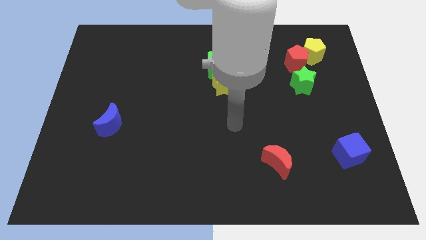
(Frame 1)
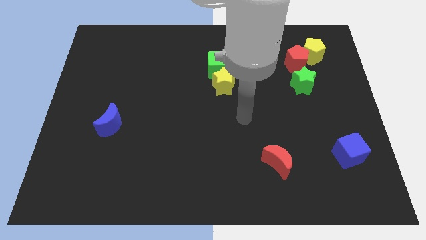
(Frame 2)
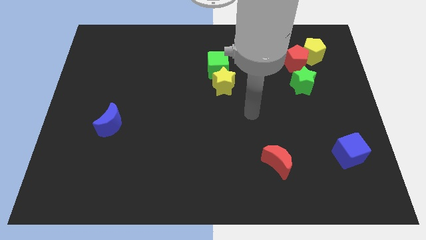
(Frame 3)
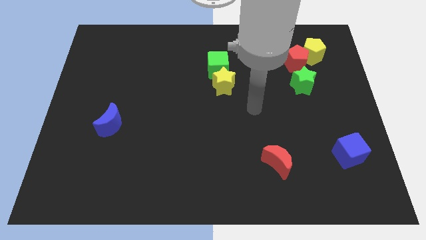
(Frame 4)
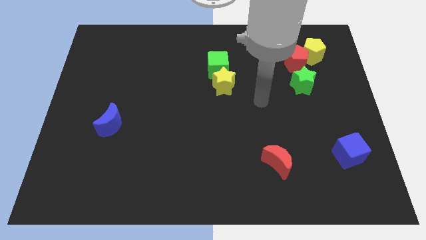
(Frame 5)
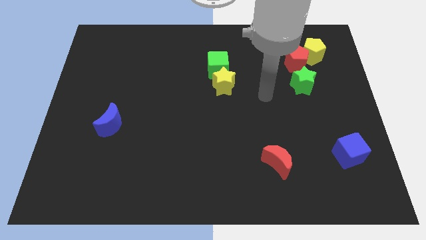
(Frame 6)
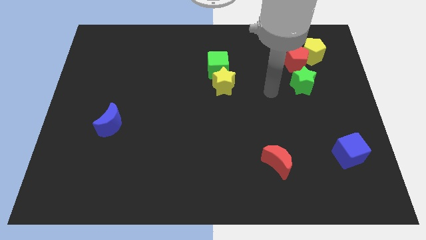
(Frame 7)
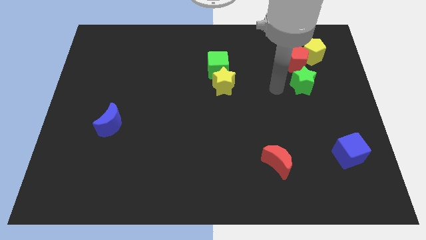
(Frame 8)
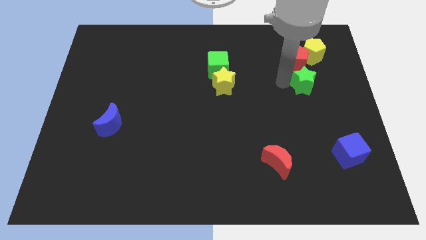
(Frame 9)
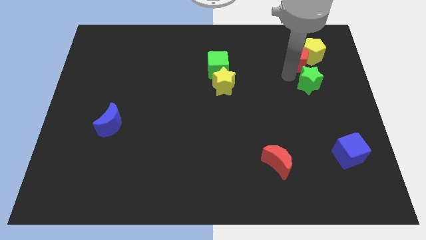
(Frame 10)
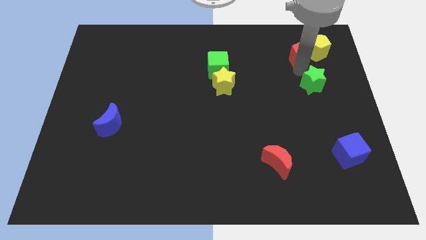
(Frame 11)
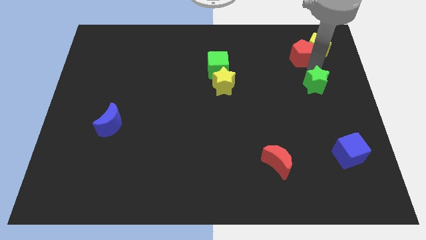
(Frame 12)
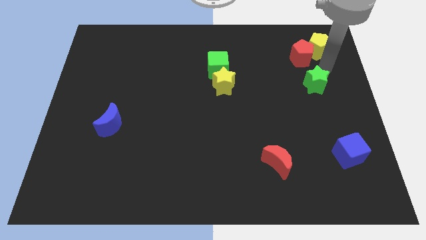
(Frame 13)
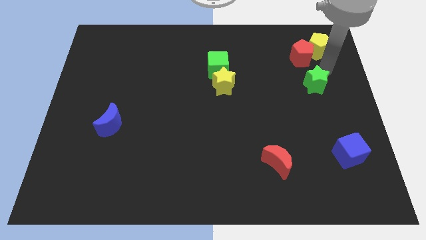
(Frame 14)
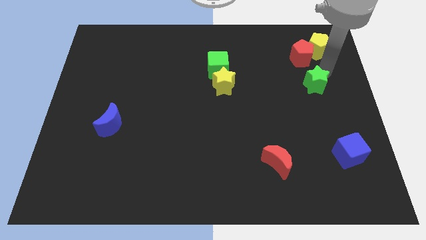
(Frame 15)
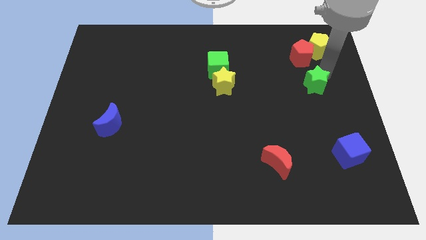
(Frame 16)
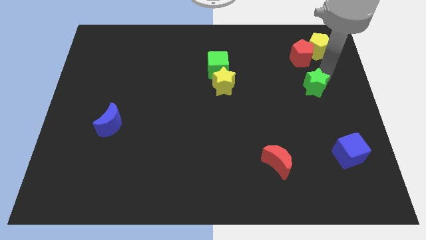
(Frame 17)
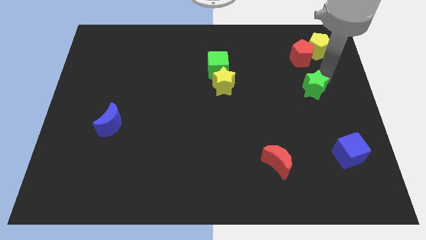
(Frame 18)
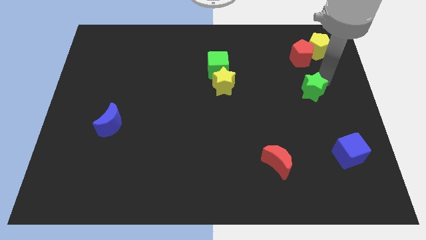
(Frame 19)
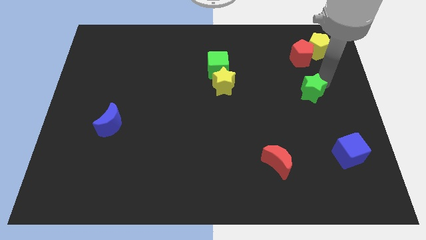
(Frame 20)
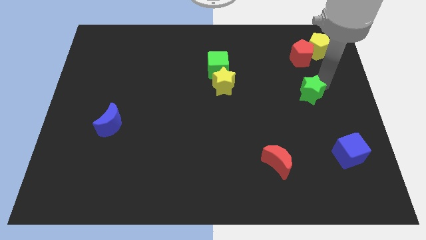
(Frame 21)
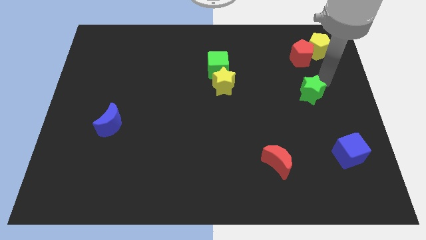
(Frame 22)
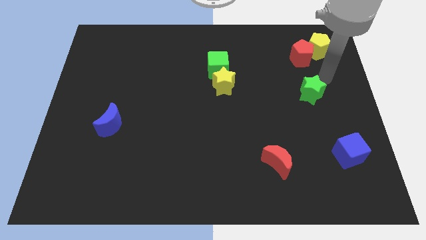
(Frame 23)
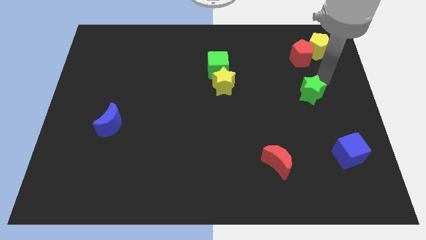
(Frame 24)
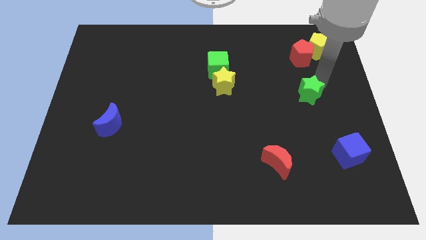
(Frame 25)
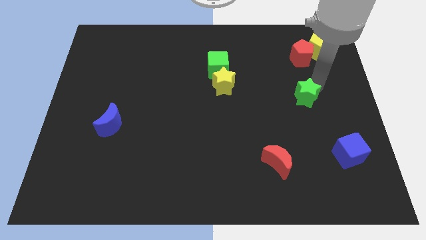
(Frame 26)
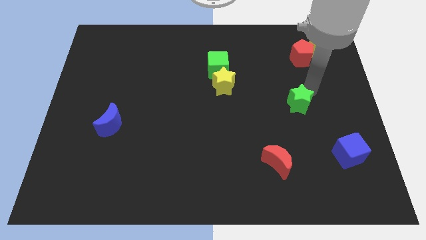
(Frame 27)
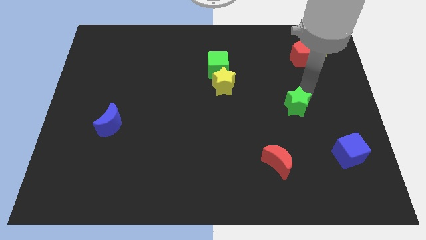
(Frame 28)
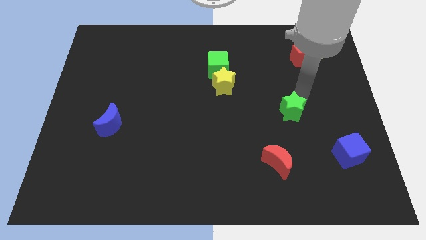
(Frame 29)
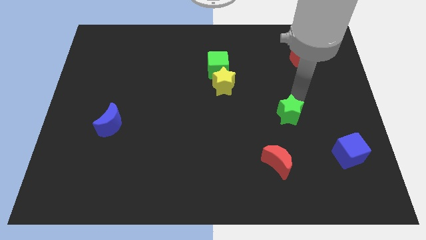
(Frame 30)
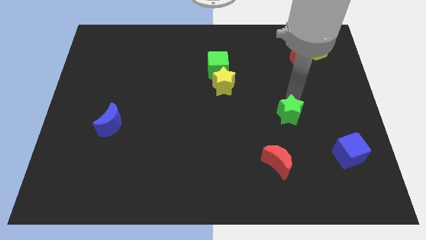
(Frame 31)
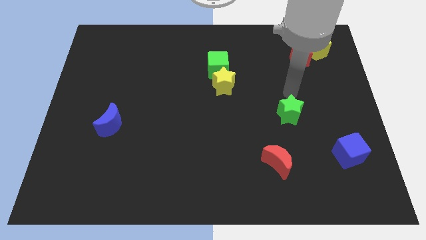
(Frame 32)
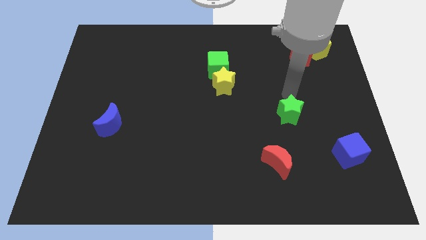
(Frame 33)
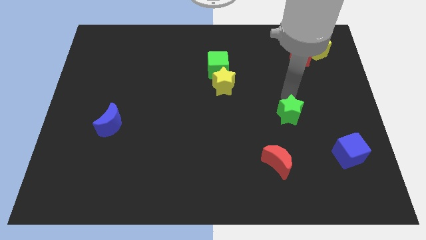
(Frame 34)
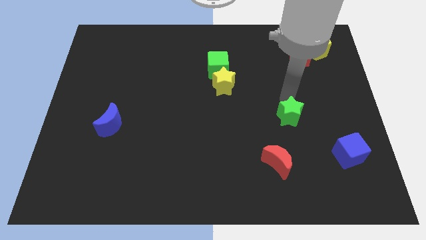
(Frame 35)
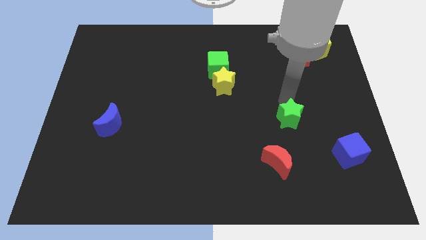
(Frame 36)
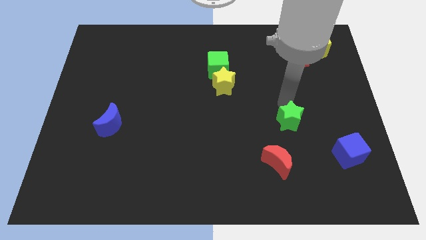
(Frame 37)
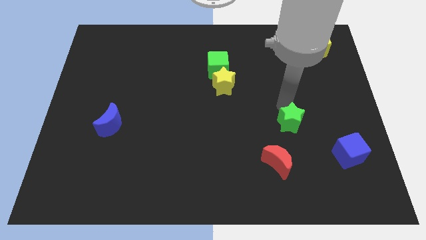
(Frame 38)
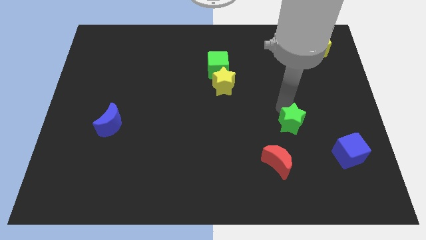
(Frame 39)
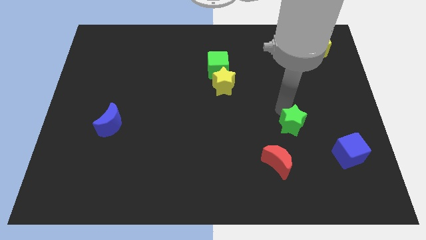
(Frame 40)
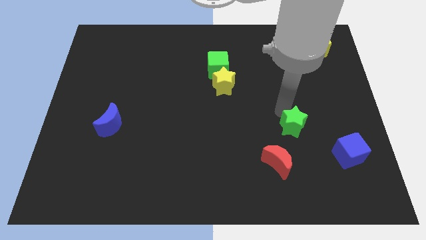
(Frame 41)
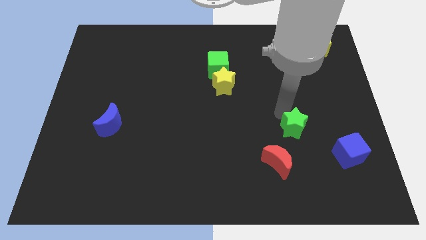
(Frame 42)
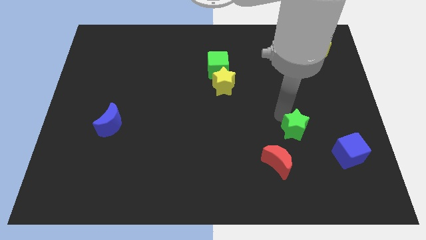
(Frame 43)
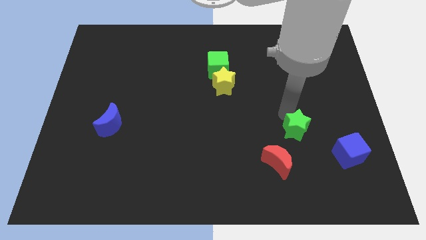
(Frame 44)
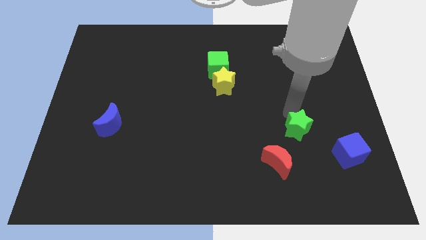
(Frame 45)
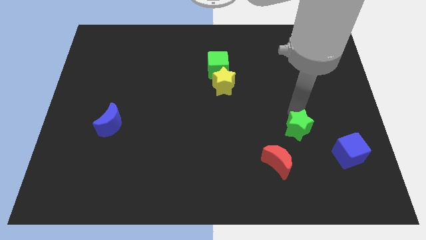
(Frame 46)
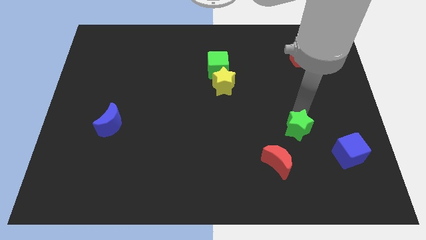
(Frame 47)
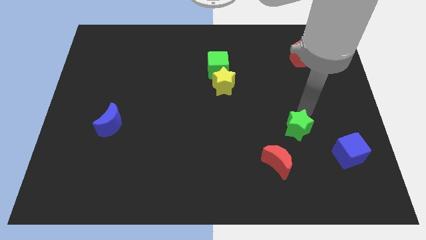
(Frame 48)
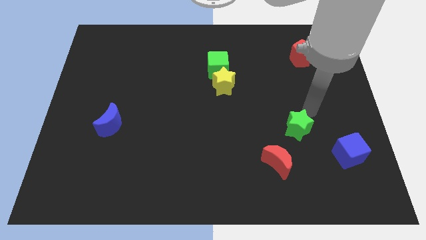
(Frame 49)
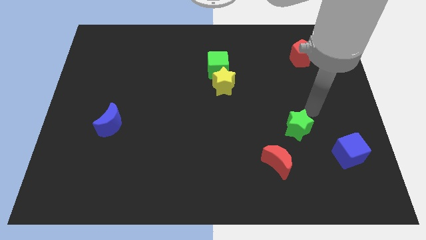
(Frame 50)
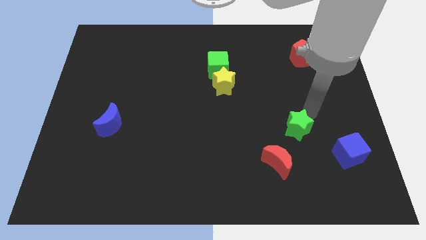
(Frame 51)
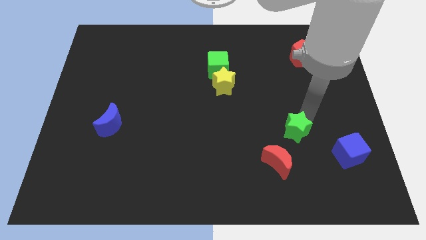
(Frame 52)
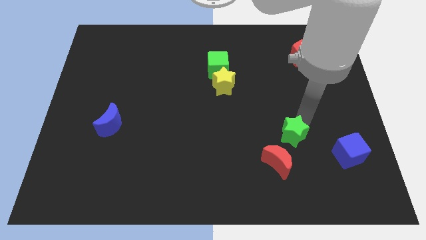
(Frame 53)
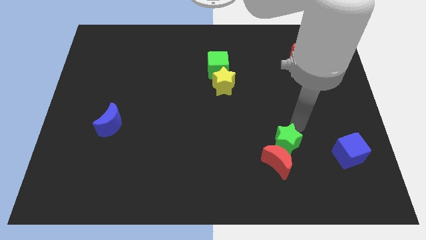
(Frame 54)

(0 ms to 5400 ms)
slide the green star towards the red moon

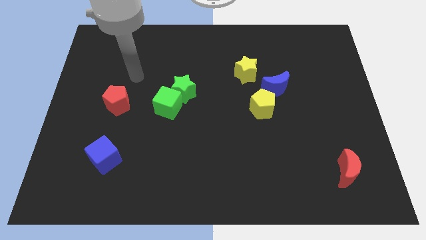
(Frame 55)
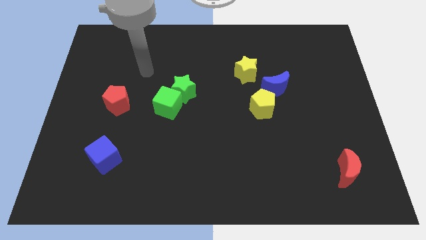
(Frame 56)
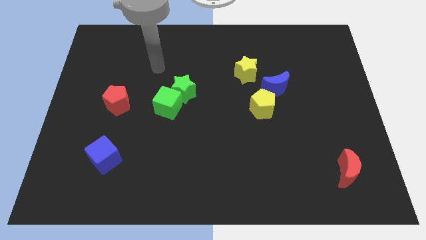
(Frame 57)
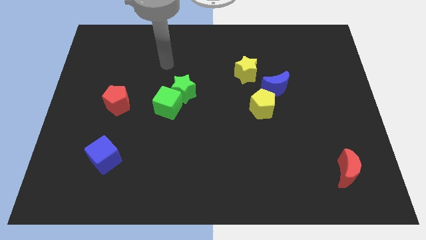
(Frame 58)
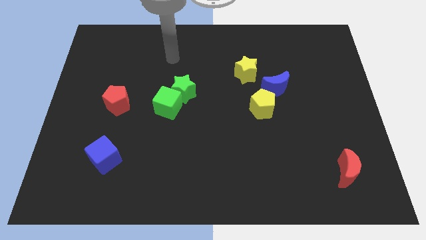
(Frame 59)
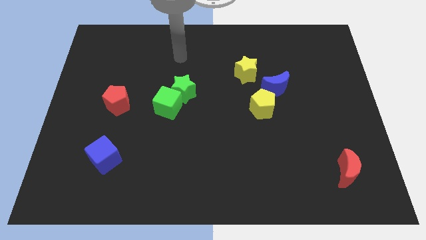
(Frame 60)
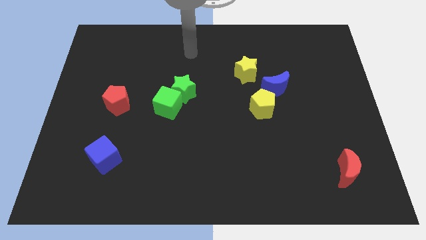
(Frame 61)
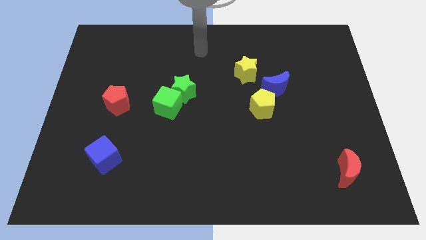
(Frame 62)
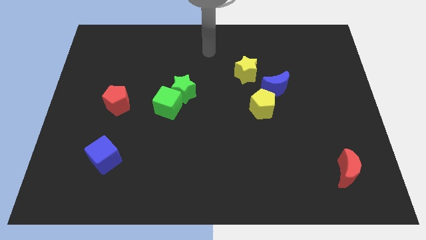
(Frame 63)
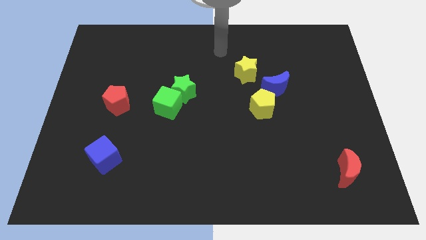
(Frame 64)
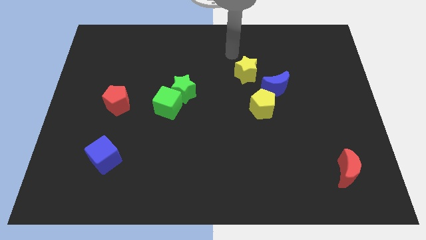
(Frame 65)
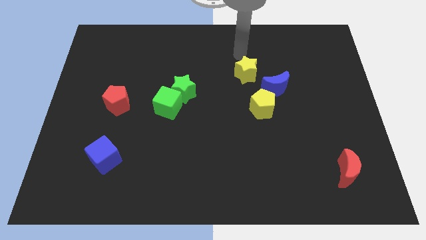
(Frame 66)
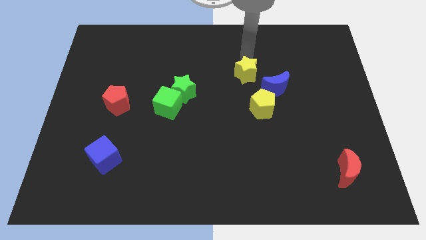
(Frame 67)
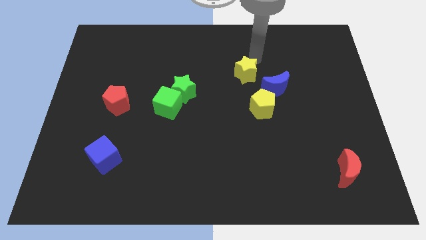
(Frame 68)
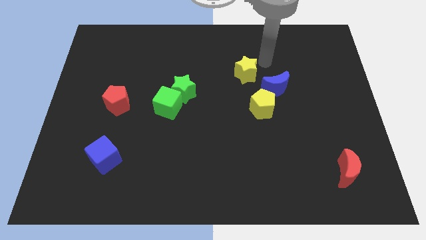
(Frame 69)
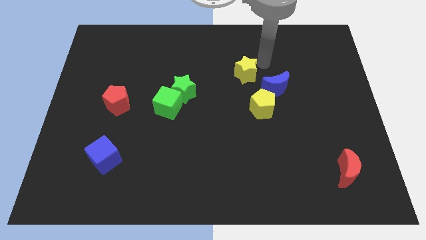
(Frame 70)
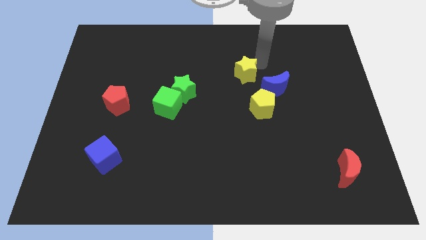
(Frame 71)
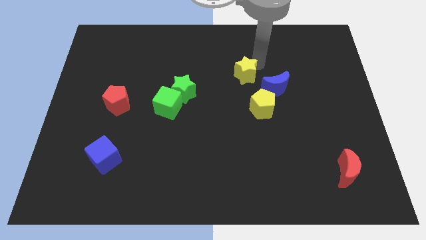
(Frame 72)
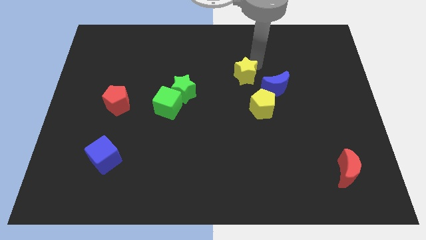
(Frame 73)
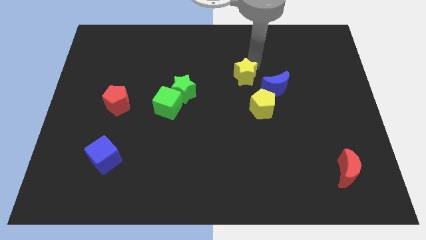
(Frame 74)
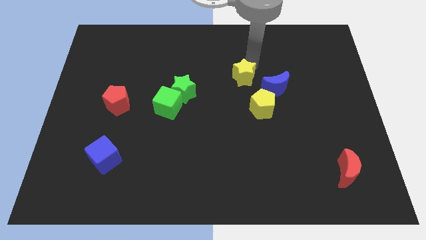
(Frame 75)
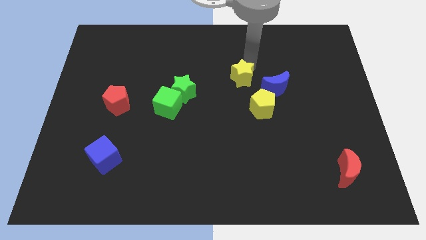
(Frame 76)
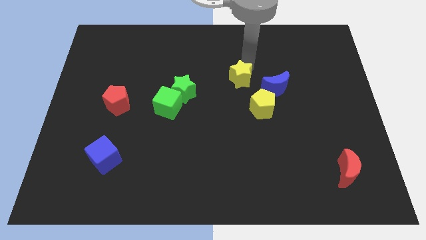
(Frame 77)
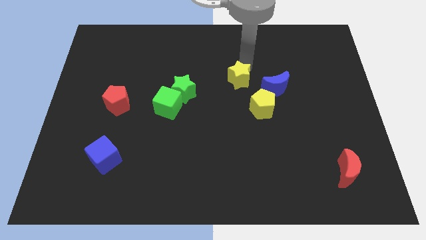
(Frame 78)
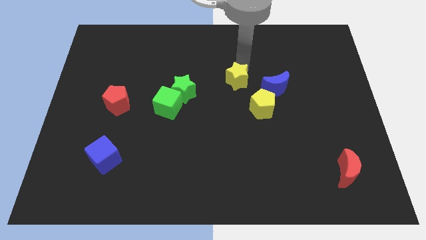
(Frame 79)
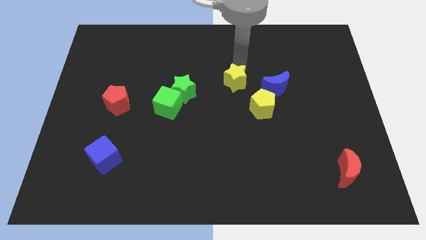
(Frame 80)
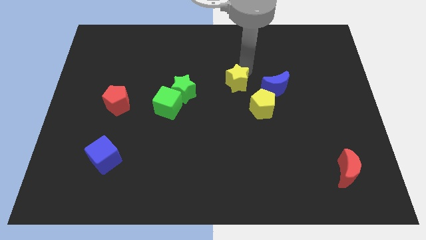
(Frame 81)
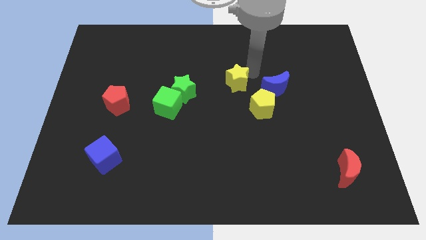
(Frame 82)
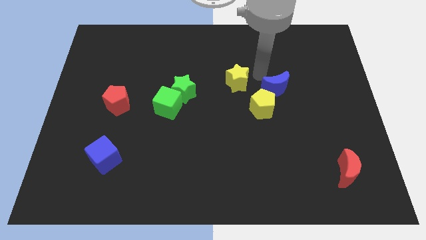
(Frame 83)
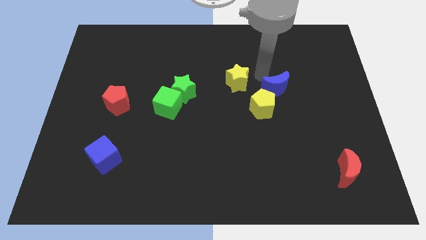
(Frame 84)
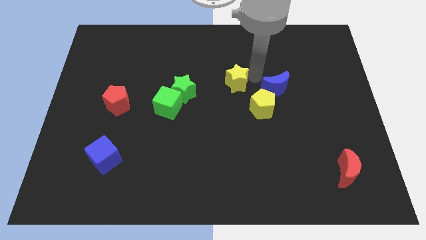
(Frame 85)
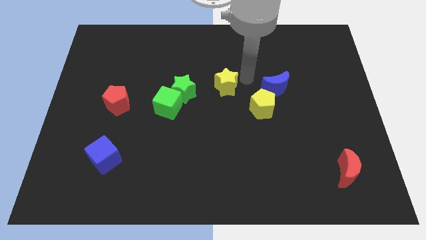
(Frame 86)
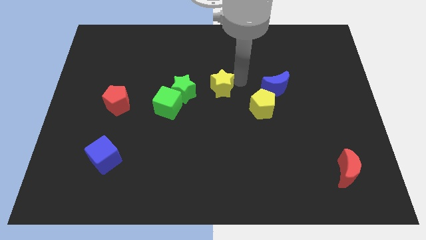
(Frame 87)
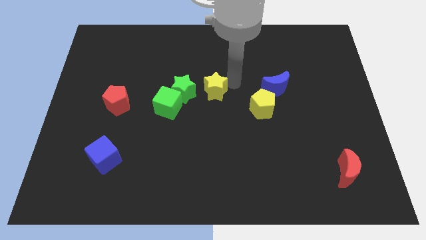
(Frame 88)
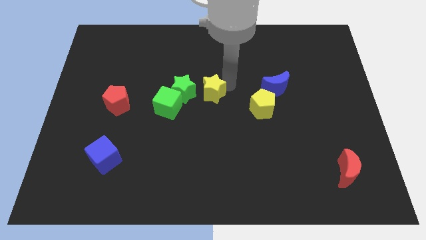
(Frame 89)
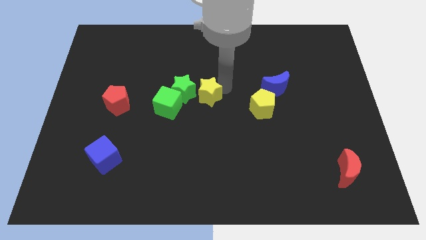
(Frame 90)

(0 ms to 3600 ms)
put the yellow star close to the green star
